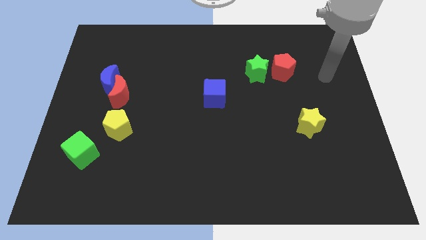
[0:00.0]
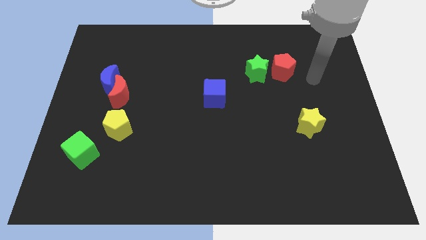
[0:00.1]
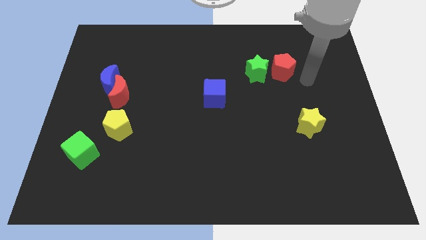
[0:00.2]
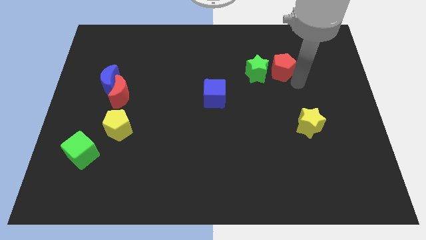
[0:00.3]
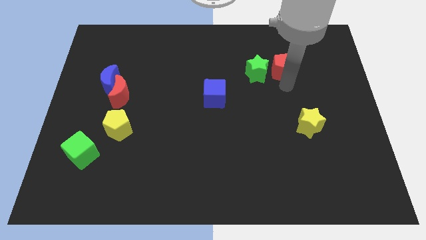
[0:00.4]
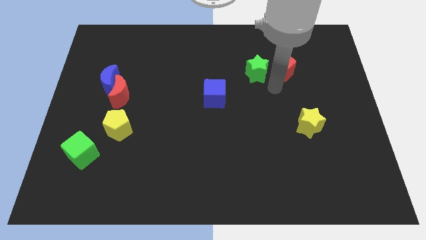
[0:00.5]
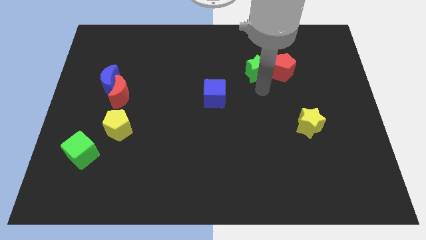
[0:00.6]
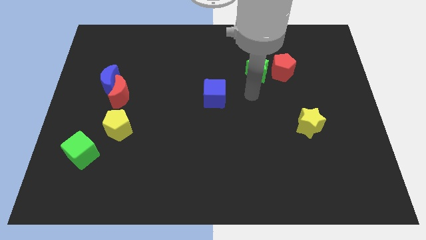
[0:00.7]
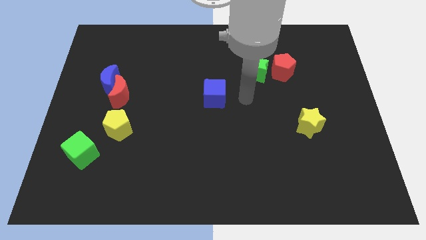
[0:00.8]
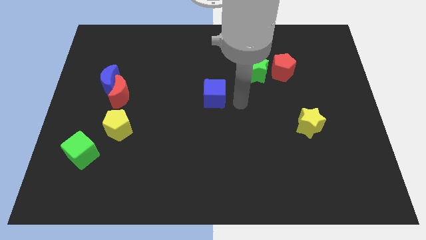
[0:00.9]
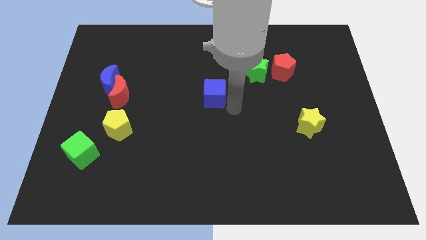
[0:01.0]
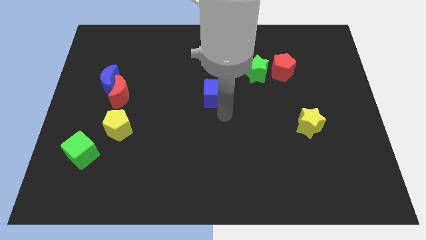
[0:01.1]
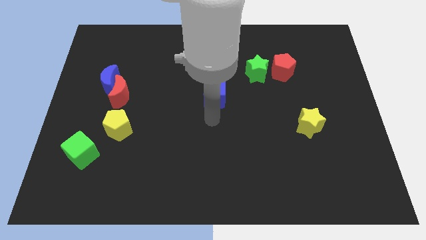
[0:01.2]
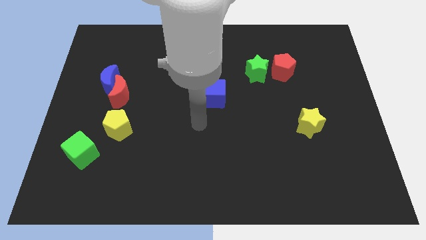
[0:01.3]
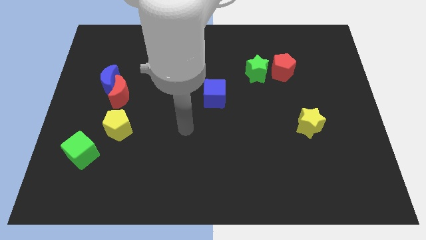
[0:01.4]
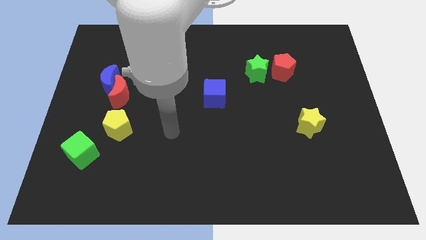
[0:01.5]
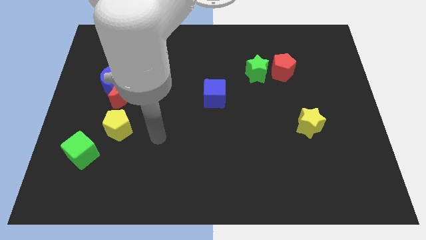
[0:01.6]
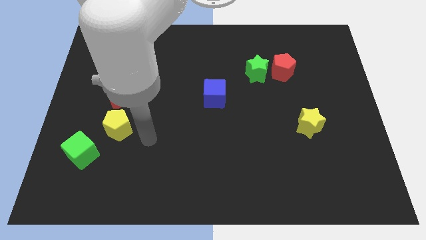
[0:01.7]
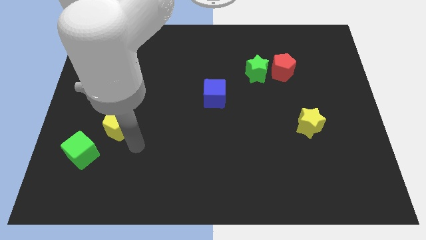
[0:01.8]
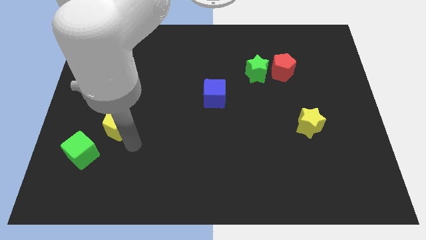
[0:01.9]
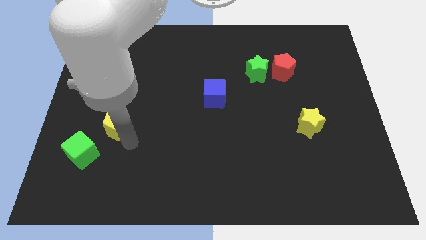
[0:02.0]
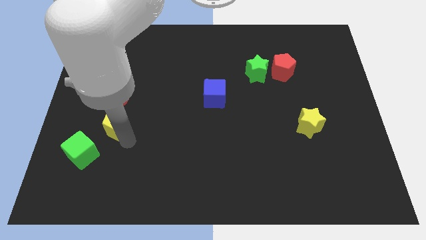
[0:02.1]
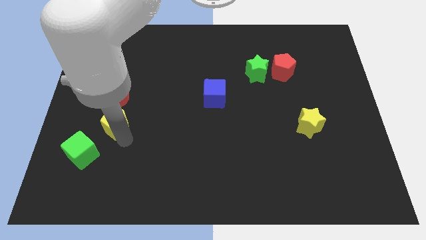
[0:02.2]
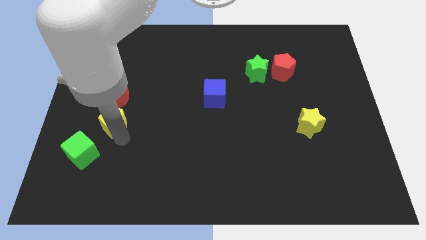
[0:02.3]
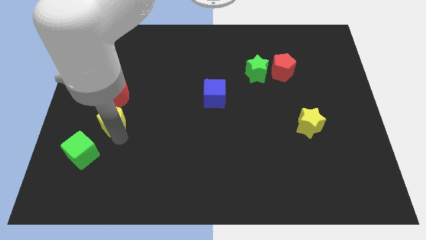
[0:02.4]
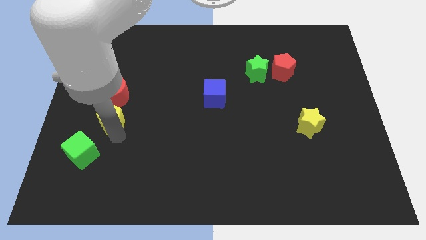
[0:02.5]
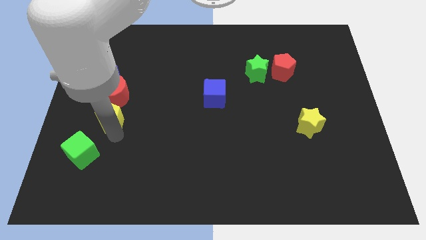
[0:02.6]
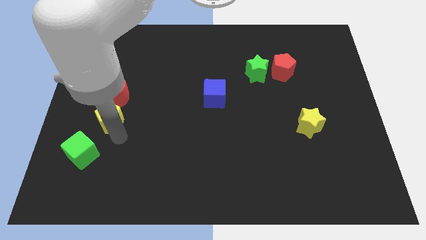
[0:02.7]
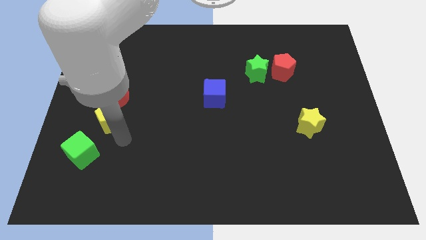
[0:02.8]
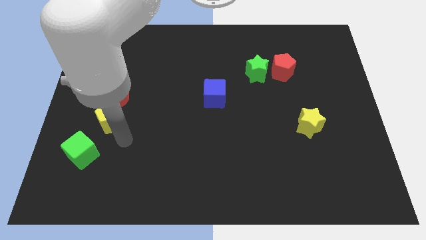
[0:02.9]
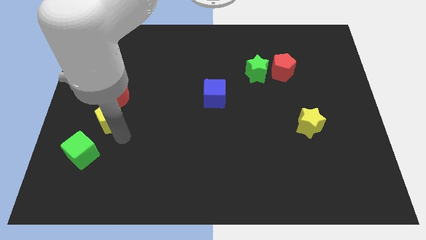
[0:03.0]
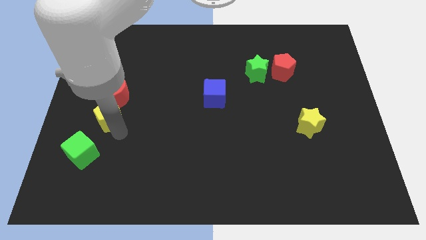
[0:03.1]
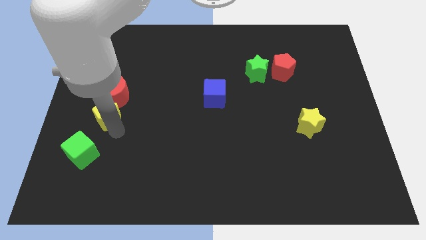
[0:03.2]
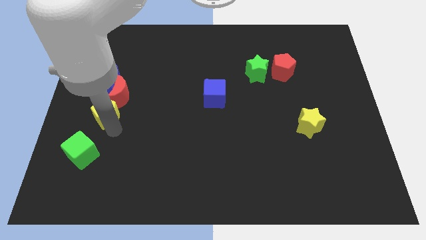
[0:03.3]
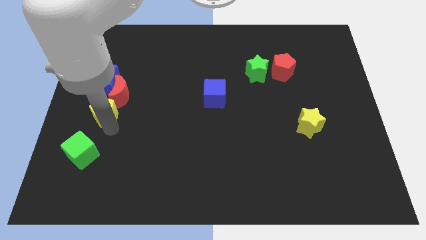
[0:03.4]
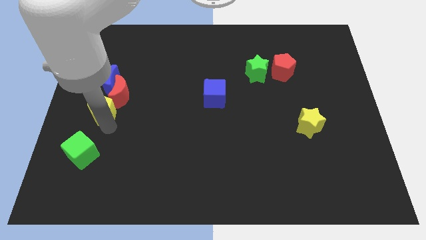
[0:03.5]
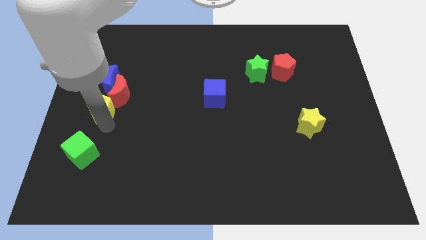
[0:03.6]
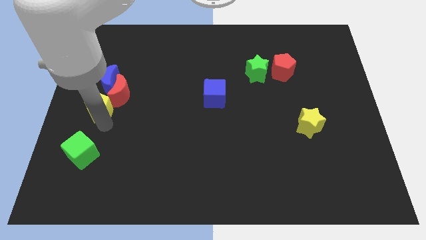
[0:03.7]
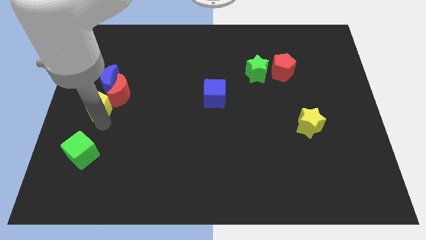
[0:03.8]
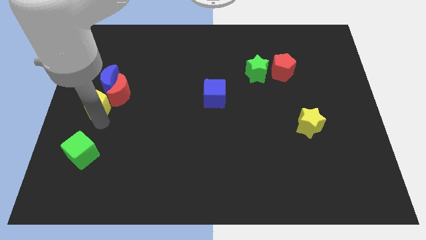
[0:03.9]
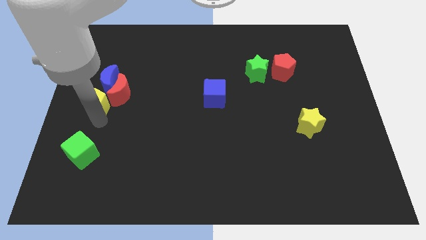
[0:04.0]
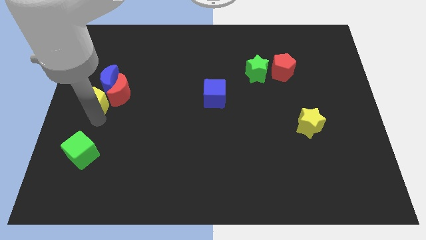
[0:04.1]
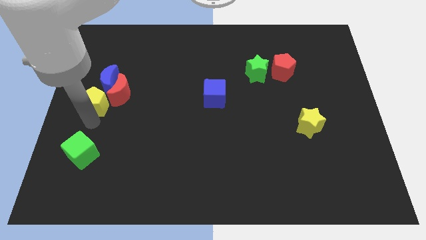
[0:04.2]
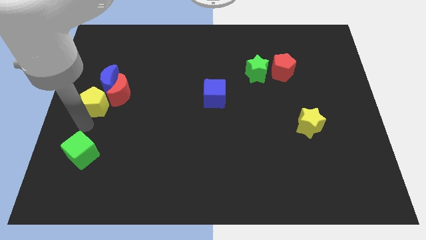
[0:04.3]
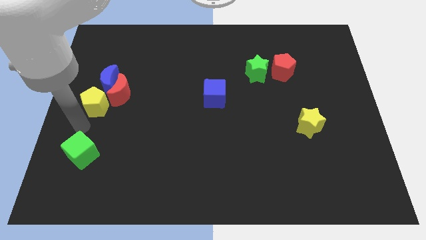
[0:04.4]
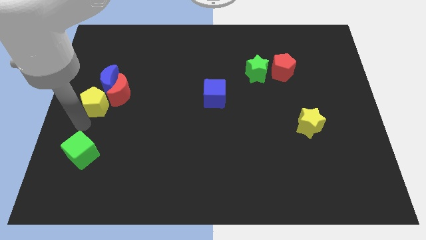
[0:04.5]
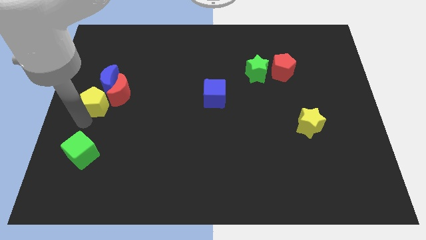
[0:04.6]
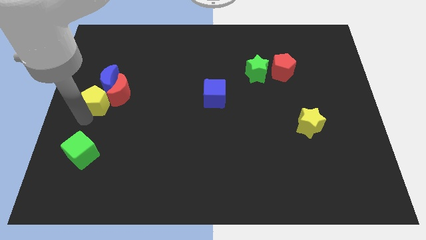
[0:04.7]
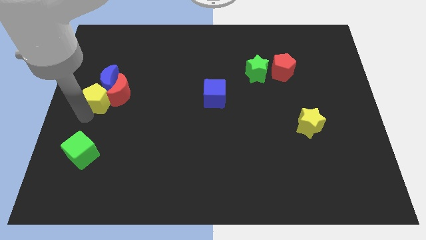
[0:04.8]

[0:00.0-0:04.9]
push the yellow pentagon close to the blue moon

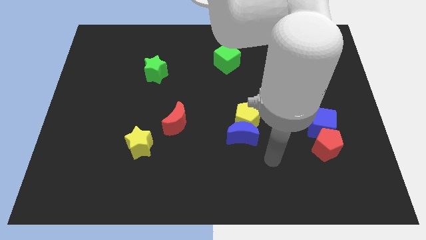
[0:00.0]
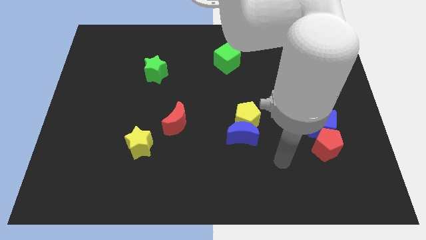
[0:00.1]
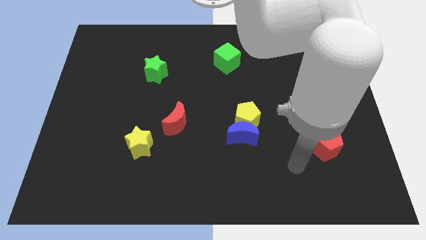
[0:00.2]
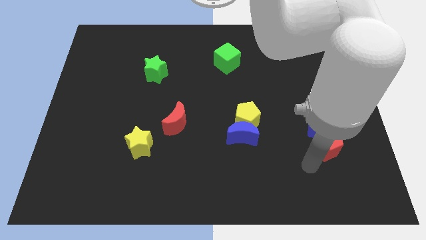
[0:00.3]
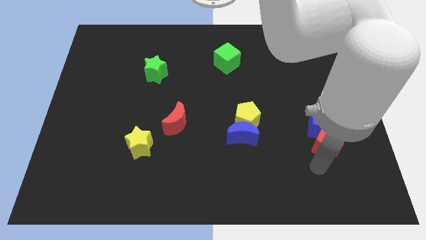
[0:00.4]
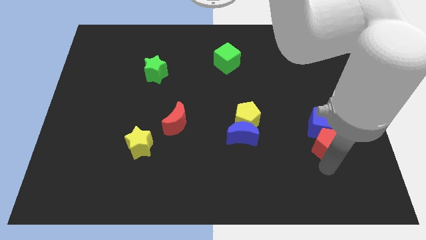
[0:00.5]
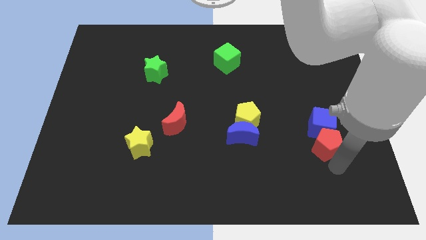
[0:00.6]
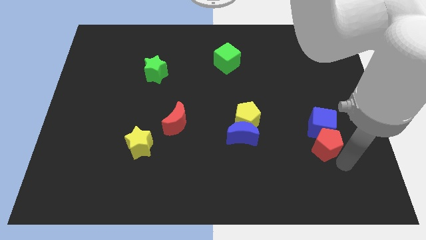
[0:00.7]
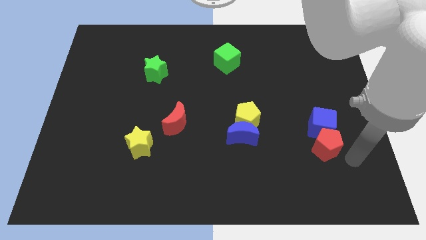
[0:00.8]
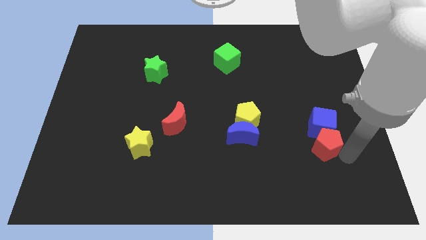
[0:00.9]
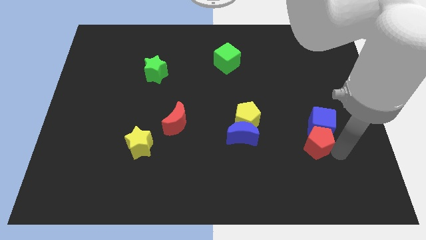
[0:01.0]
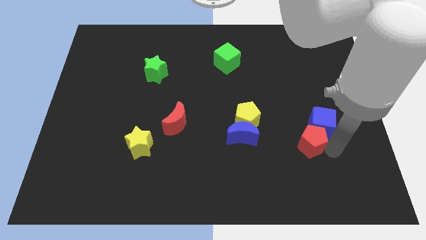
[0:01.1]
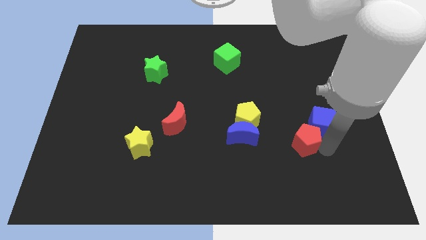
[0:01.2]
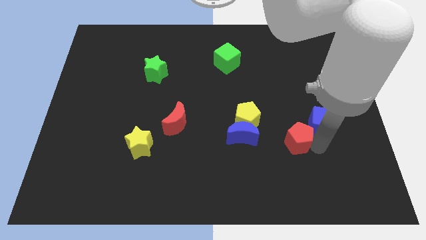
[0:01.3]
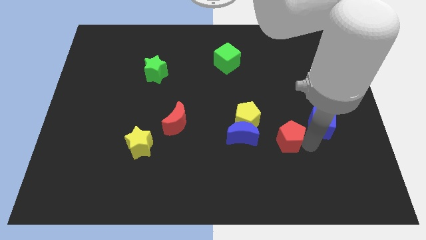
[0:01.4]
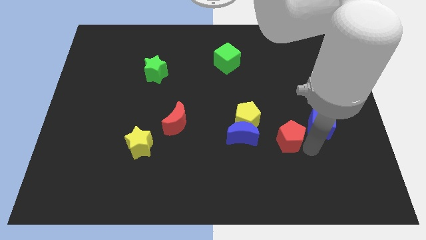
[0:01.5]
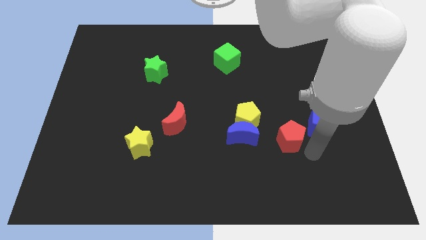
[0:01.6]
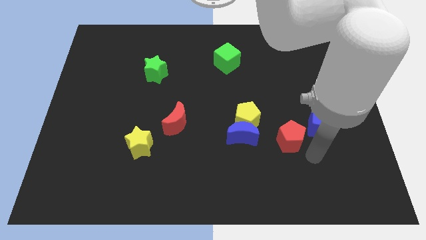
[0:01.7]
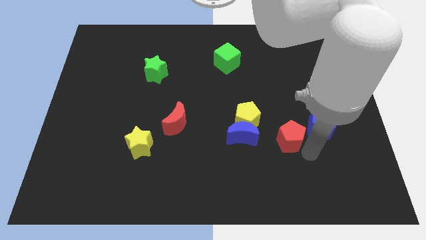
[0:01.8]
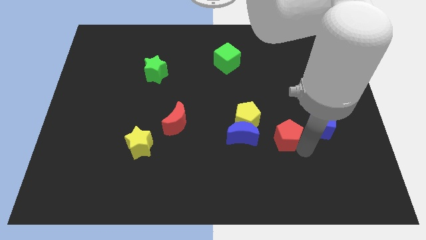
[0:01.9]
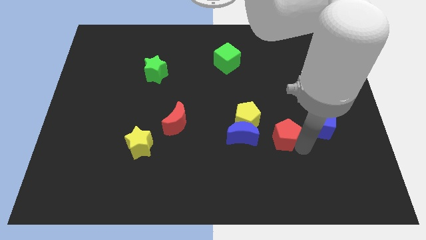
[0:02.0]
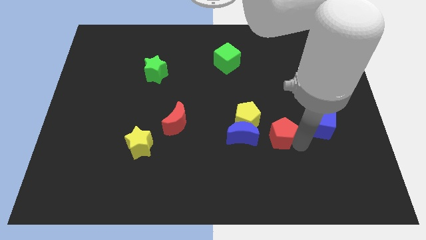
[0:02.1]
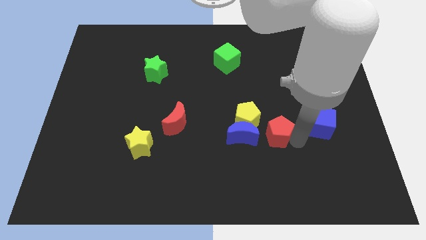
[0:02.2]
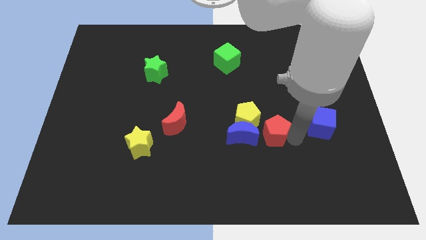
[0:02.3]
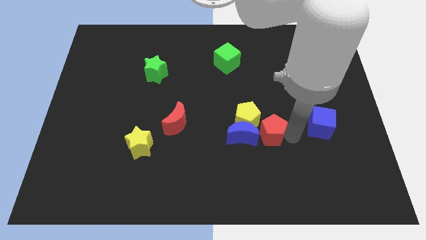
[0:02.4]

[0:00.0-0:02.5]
put the red pentagon towards the yellow pentagon
